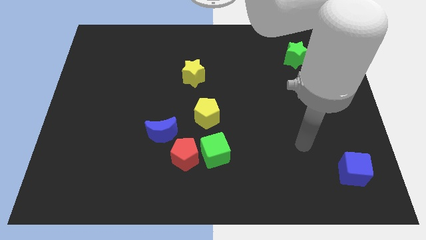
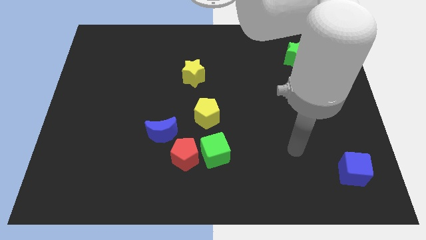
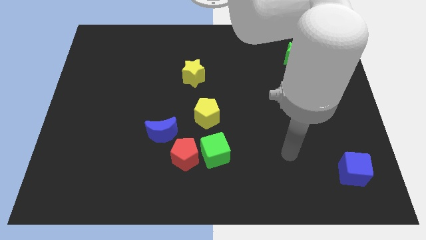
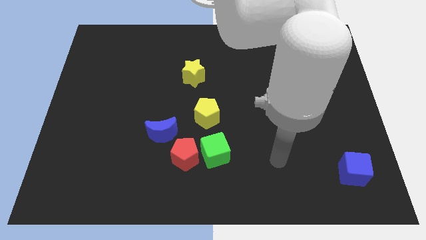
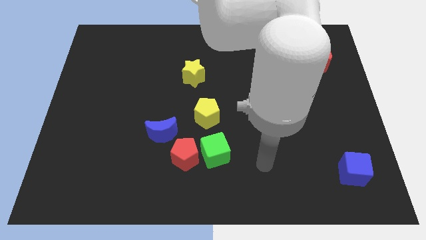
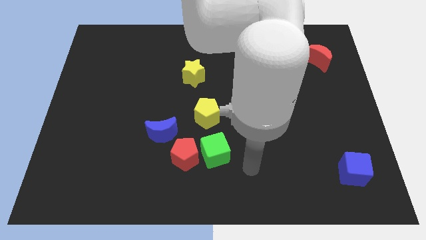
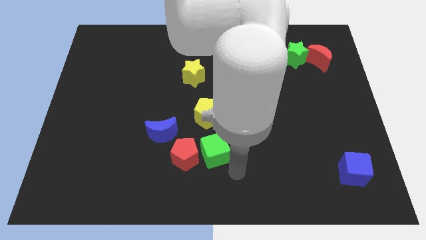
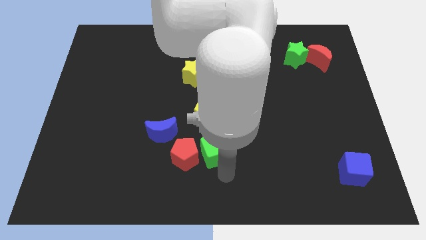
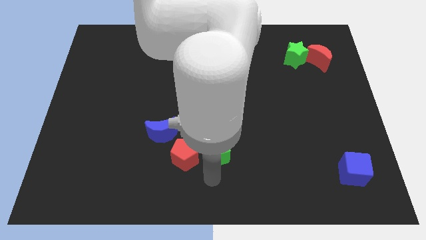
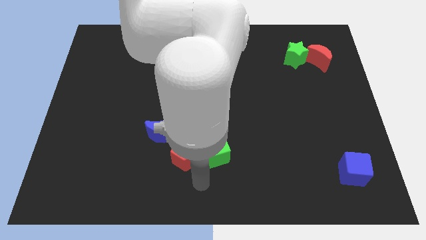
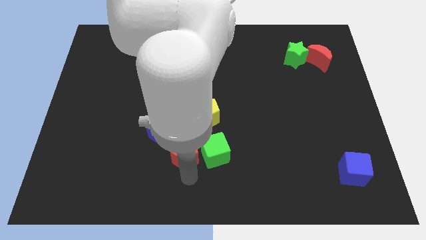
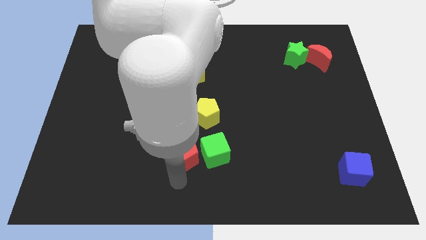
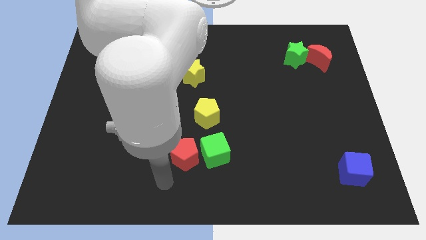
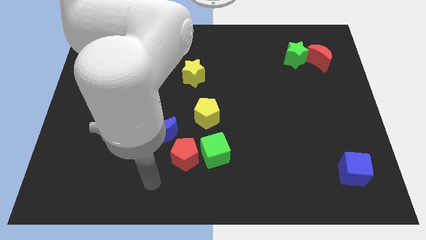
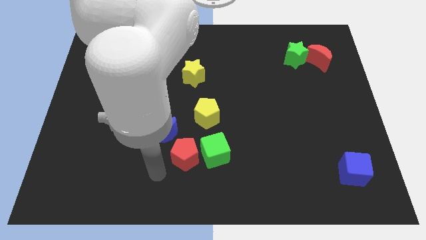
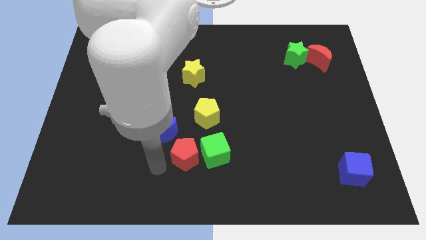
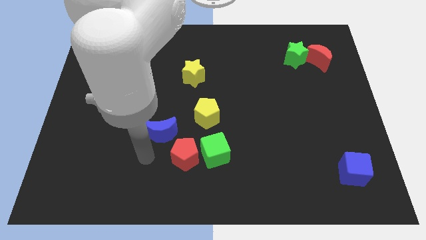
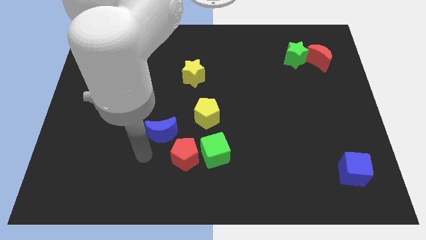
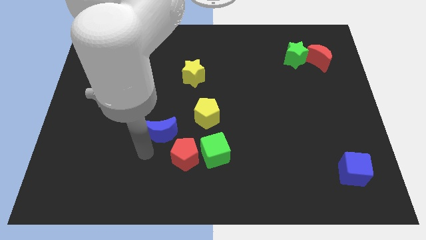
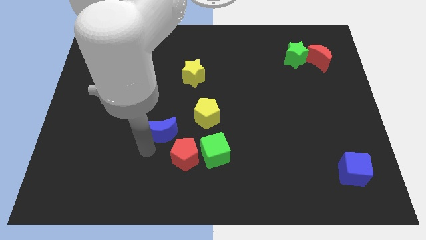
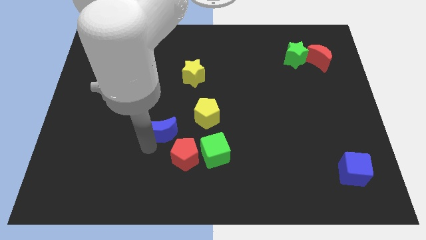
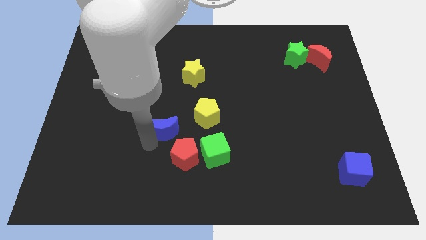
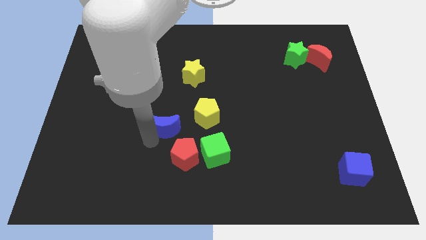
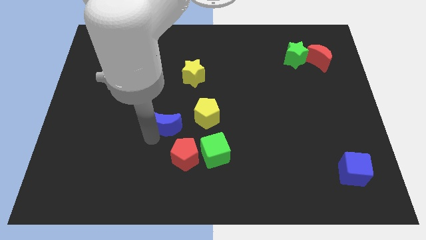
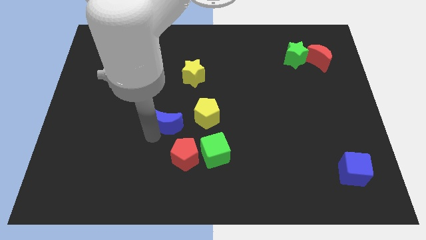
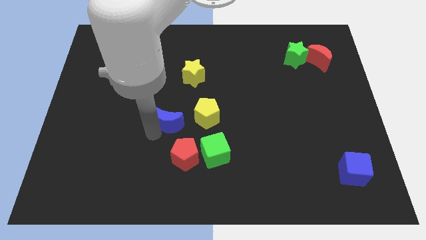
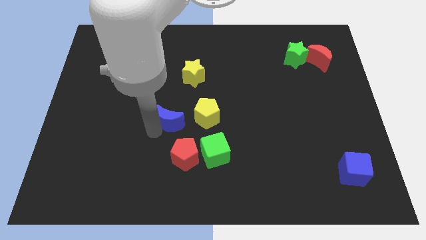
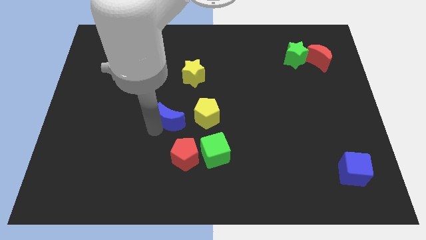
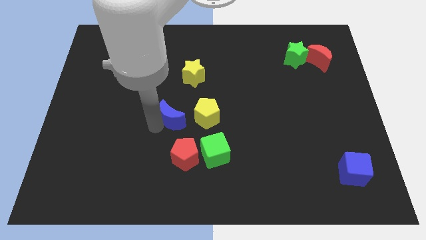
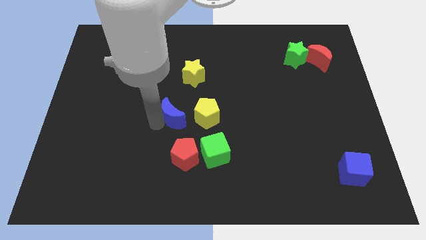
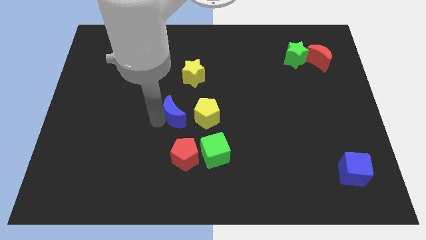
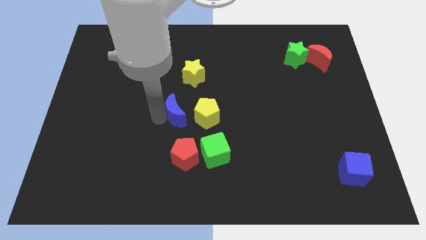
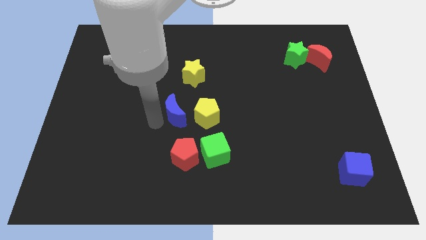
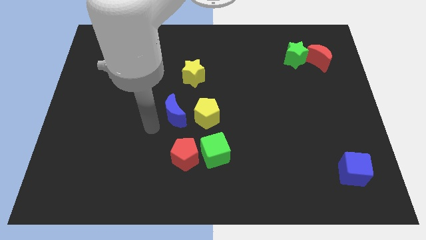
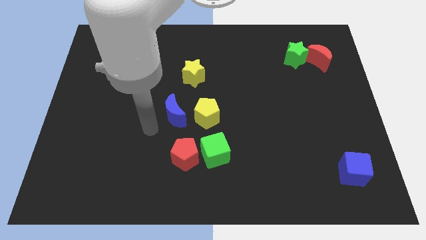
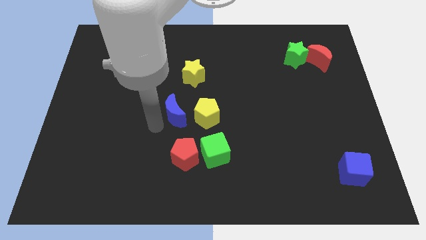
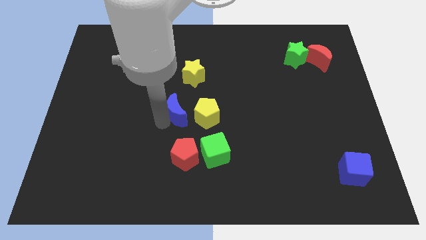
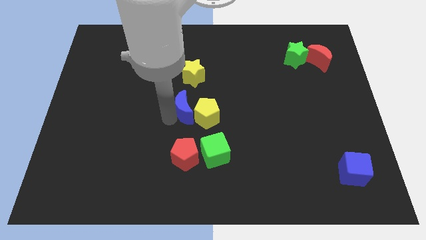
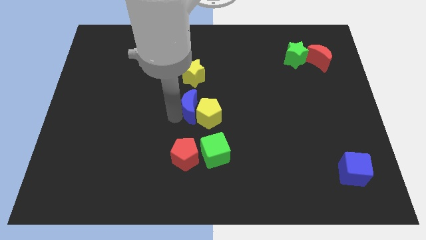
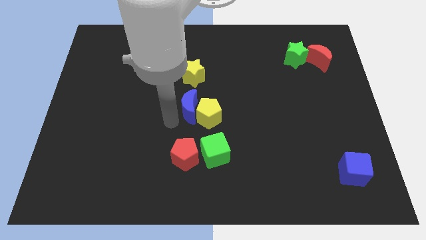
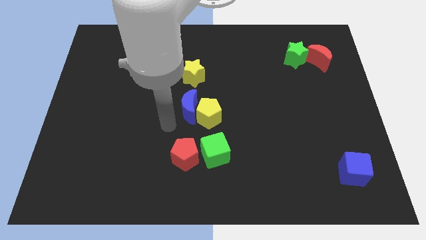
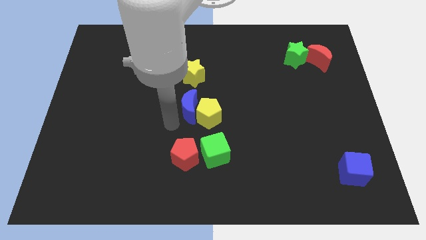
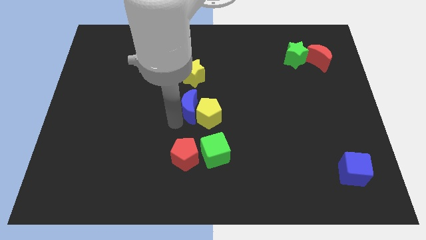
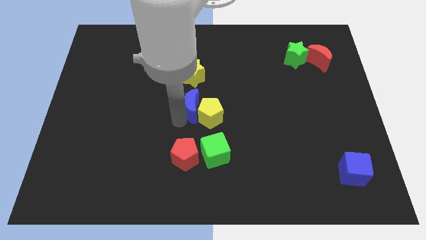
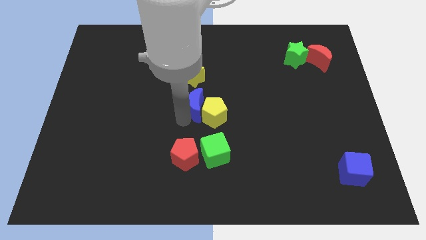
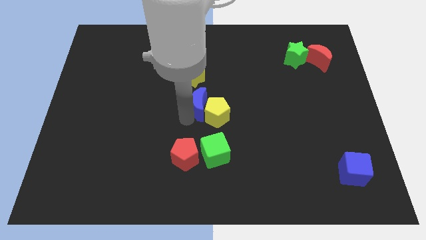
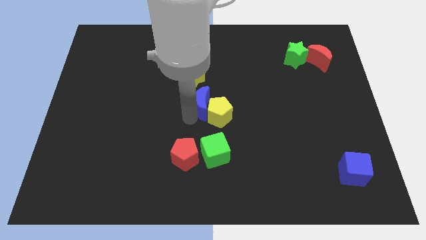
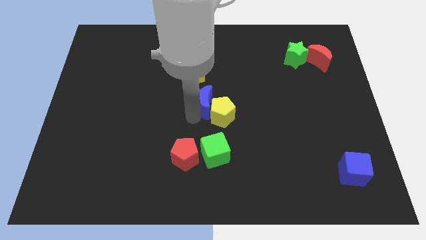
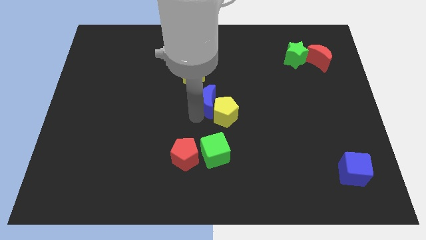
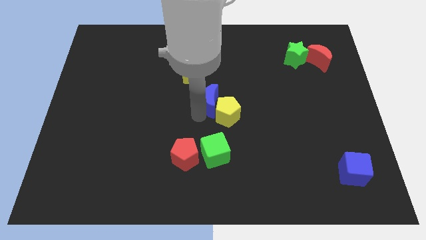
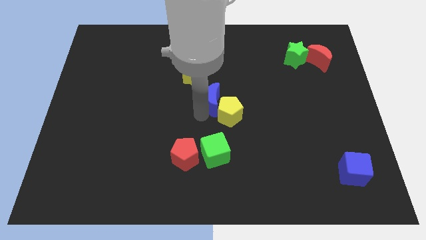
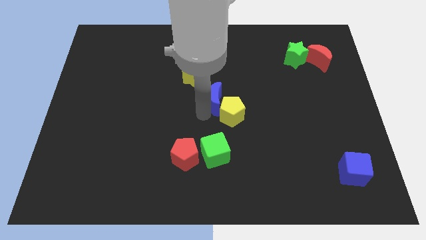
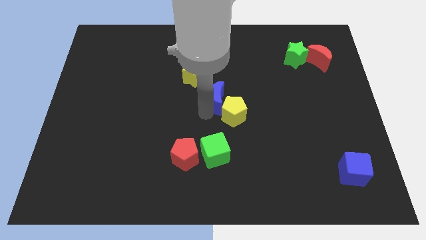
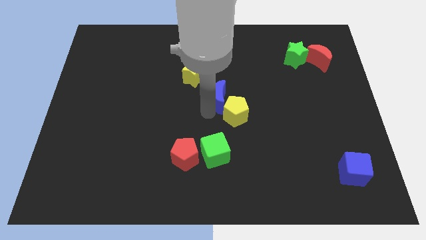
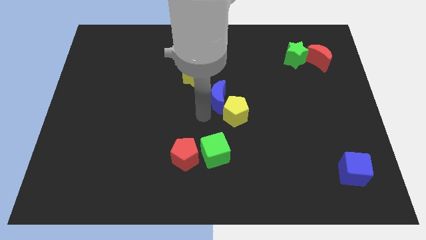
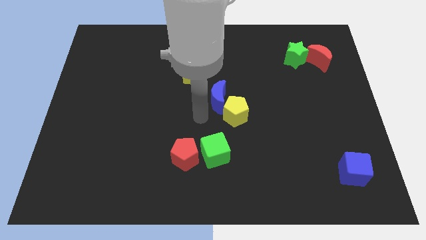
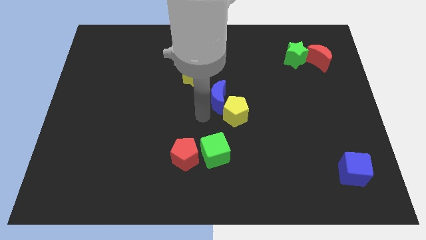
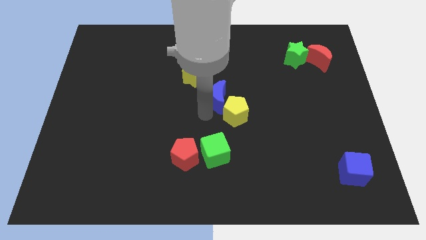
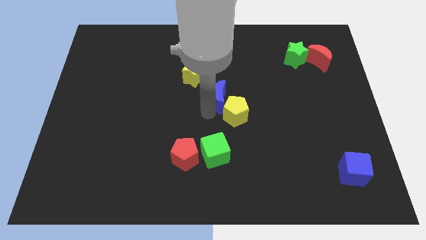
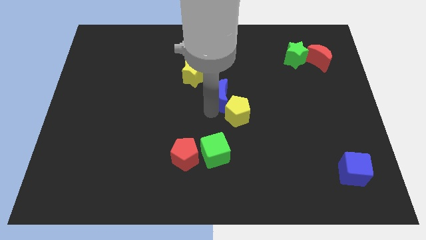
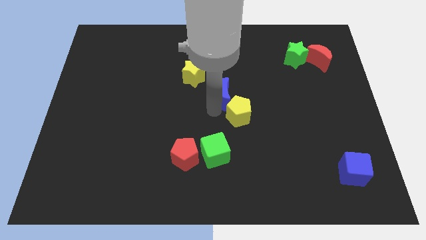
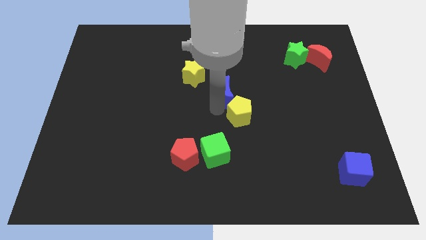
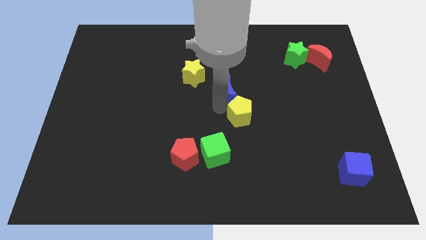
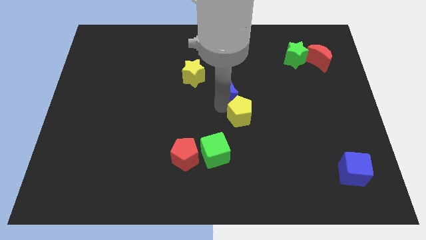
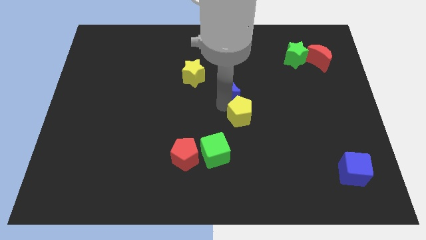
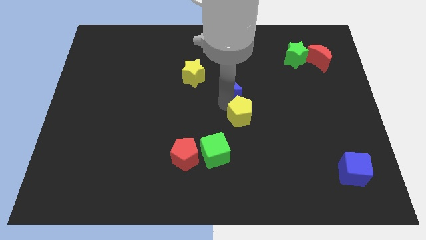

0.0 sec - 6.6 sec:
move the blue moon diagonally upwards and right

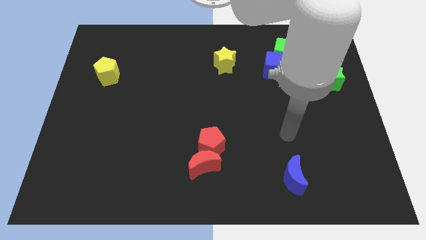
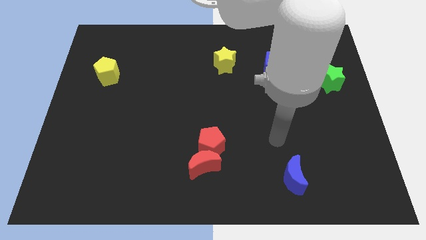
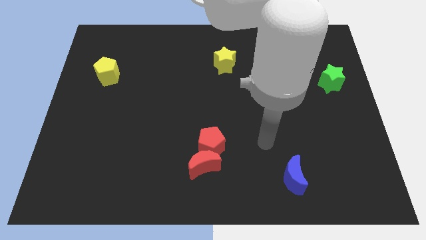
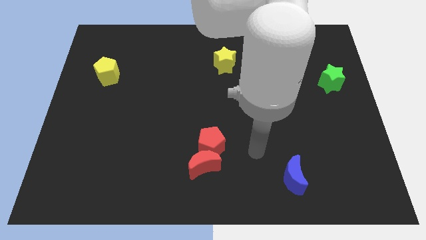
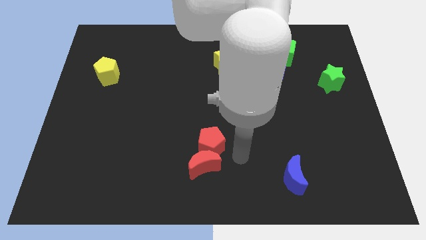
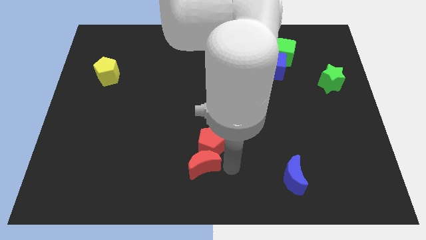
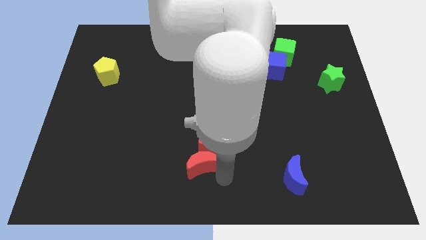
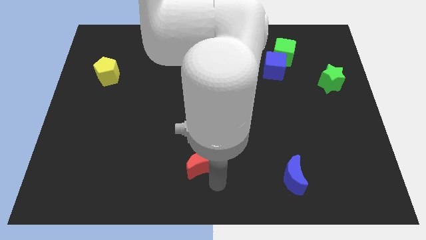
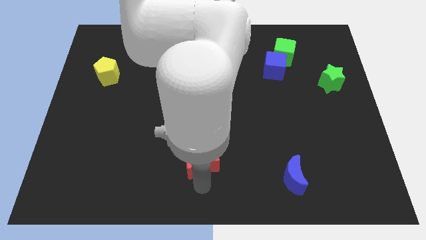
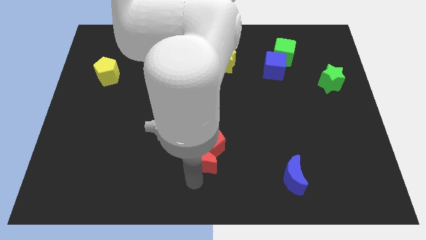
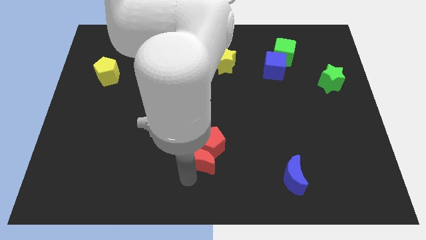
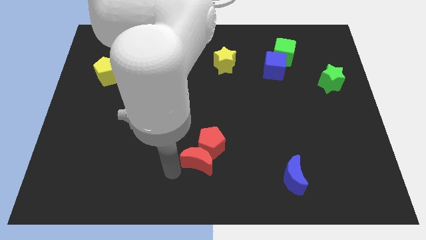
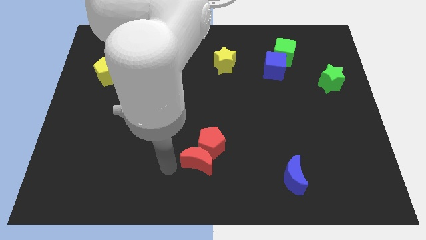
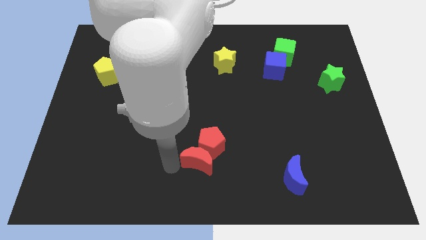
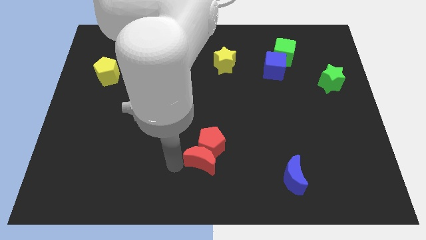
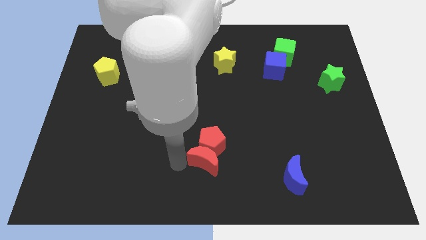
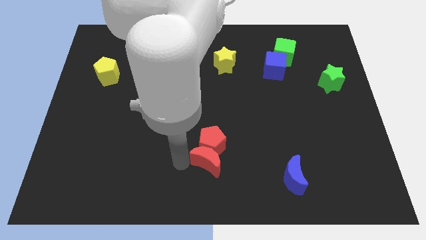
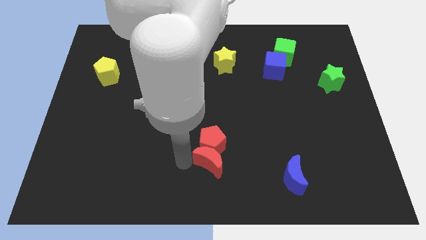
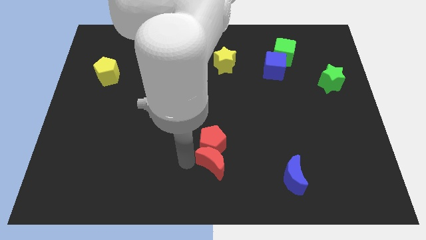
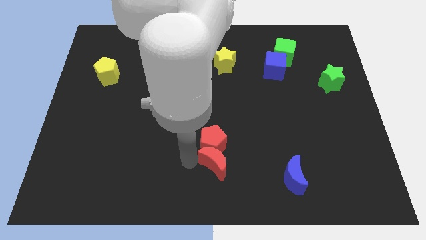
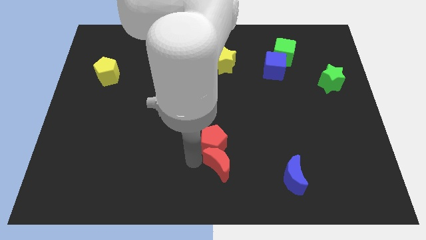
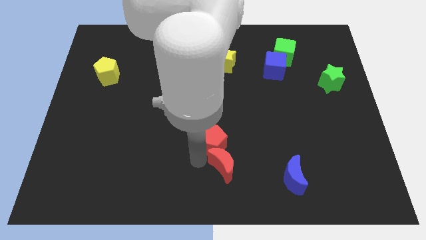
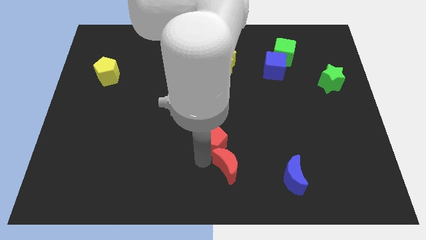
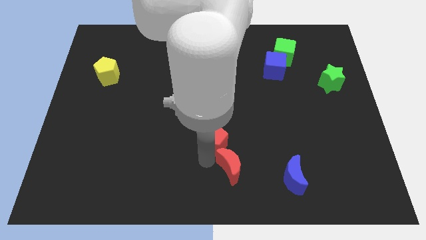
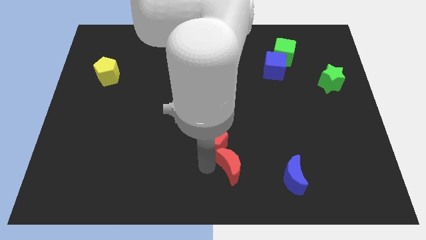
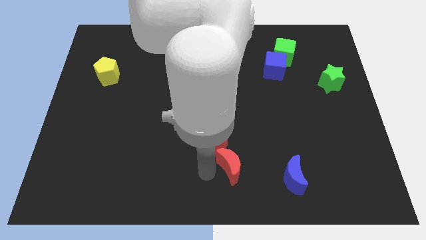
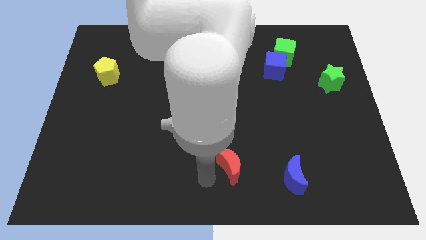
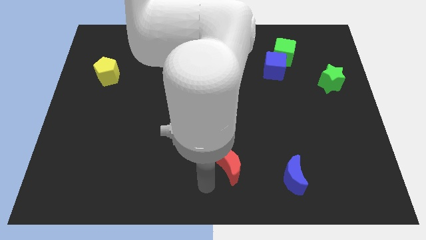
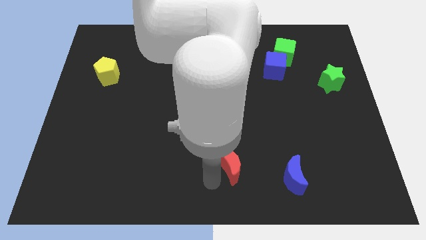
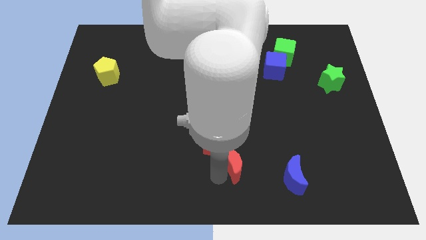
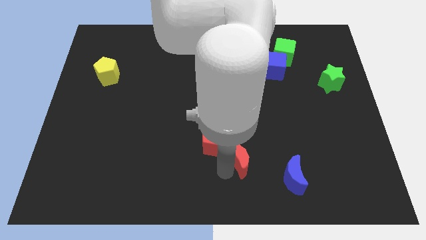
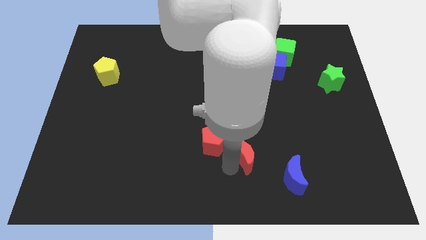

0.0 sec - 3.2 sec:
slide the red moon slightly up and then right
